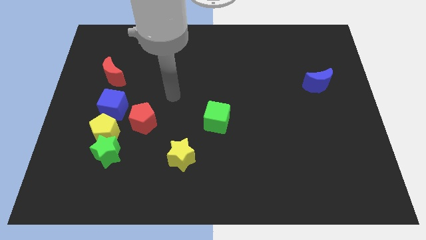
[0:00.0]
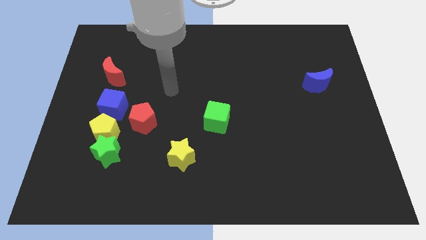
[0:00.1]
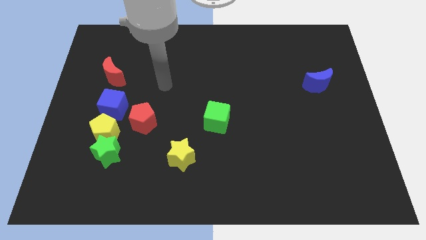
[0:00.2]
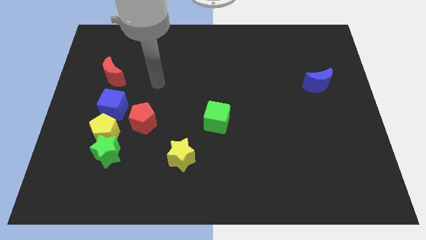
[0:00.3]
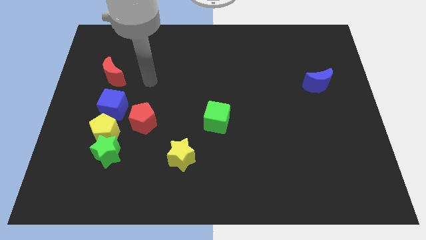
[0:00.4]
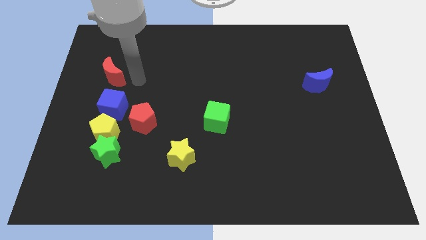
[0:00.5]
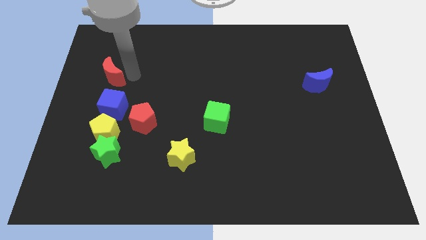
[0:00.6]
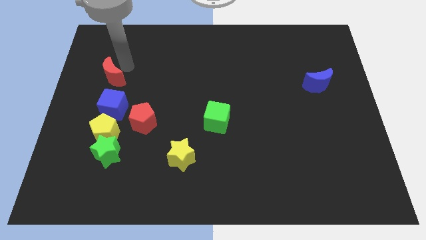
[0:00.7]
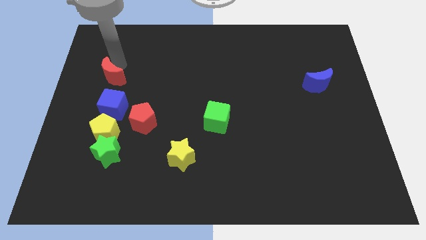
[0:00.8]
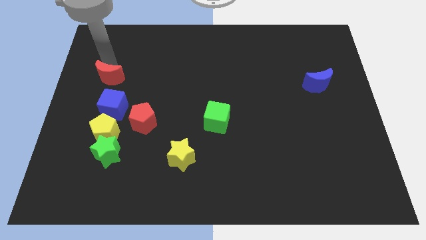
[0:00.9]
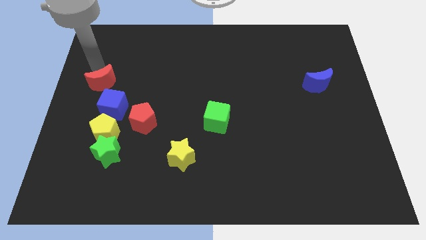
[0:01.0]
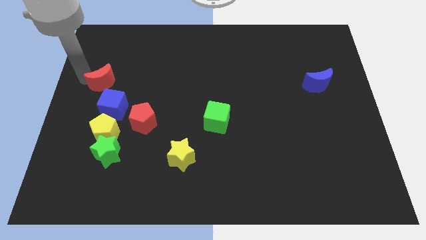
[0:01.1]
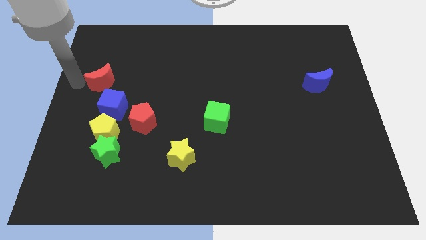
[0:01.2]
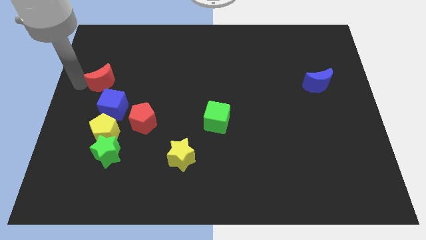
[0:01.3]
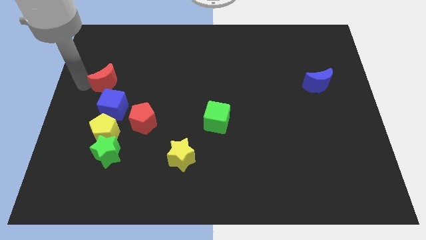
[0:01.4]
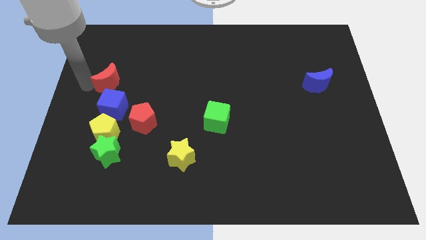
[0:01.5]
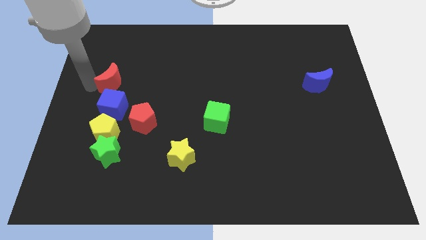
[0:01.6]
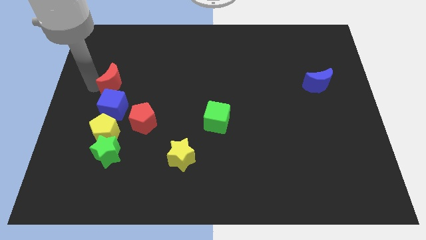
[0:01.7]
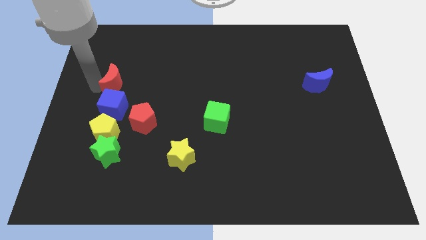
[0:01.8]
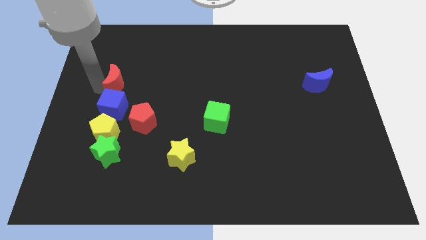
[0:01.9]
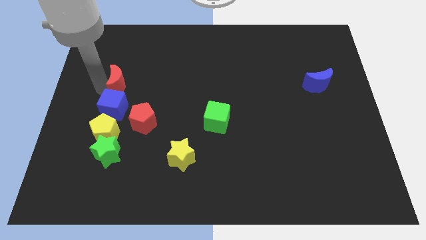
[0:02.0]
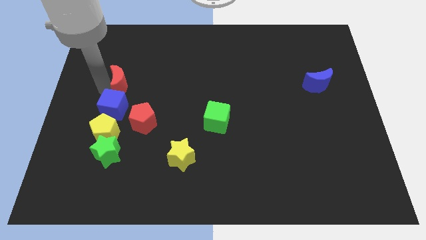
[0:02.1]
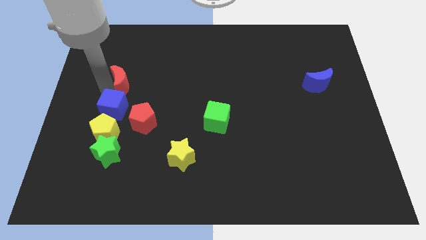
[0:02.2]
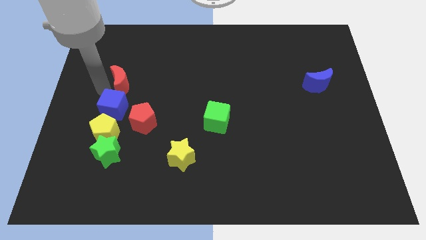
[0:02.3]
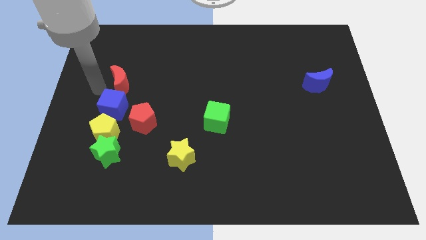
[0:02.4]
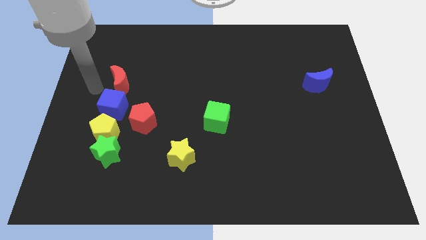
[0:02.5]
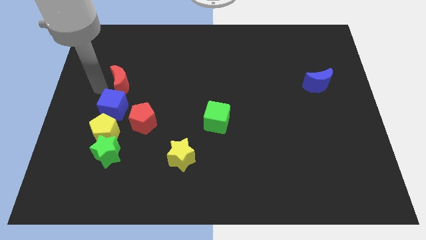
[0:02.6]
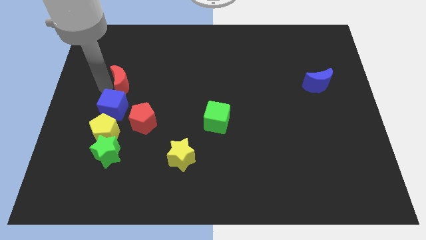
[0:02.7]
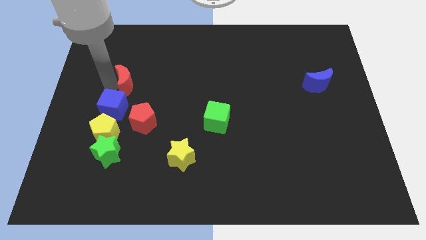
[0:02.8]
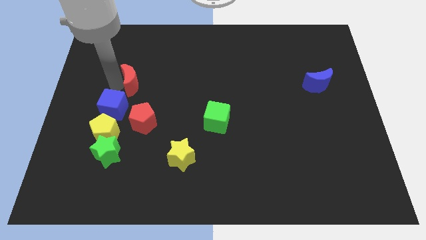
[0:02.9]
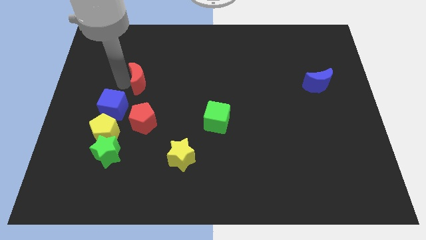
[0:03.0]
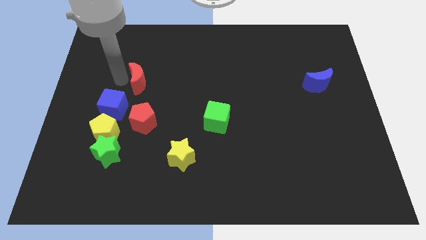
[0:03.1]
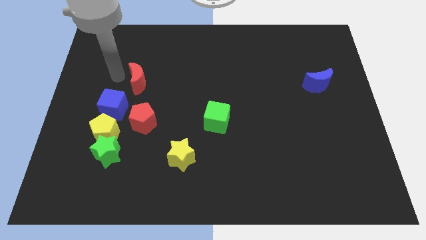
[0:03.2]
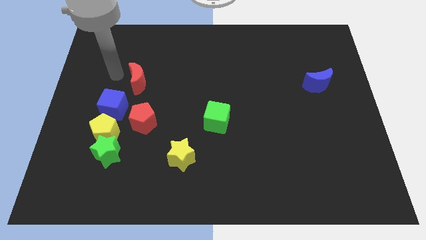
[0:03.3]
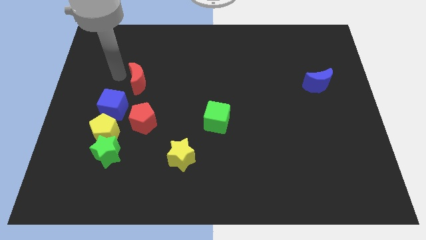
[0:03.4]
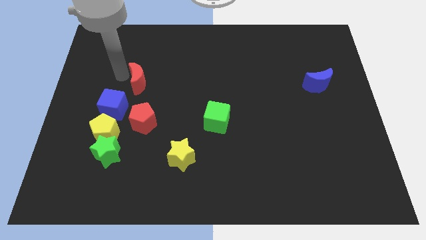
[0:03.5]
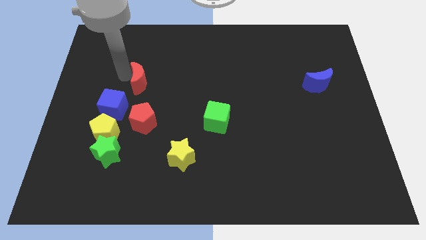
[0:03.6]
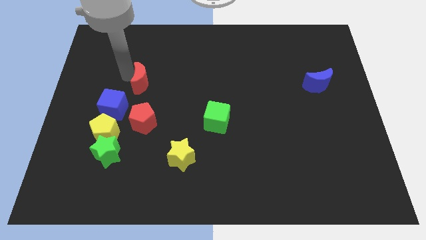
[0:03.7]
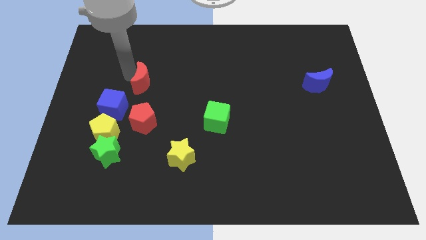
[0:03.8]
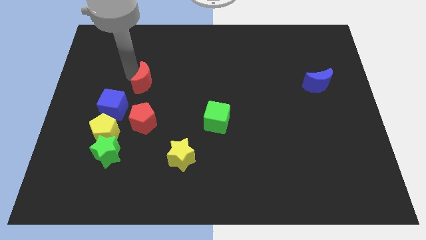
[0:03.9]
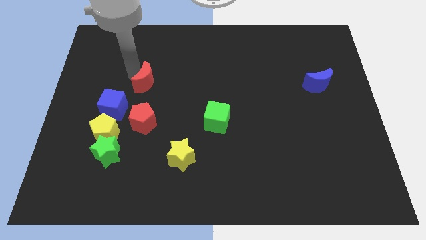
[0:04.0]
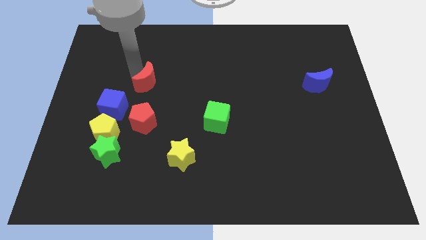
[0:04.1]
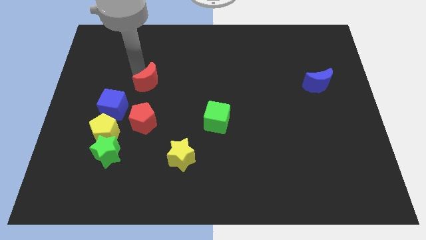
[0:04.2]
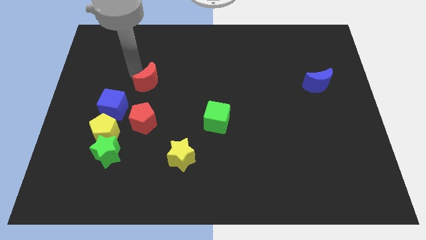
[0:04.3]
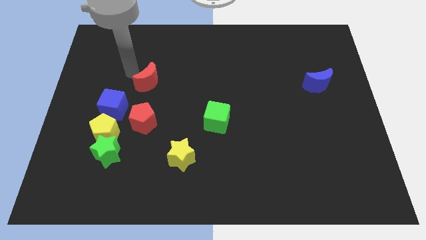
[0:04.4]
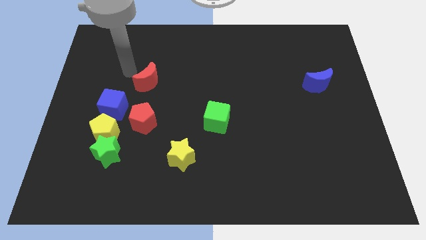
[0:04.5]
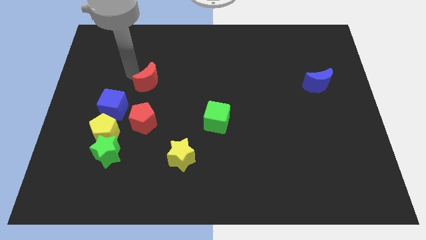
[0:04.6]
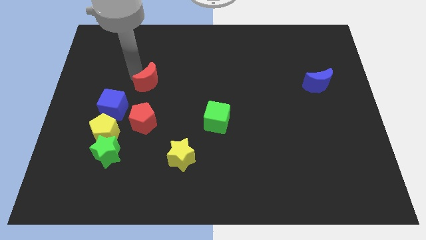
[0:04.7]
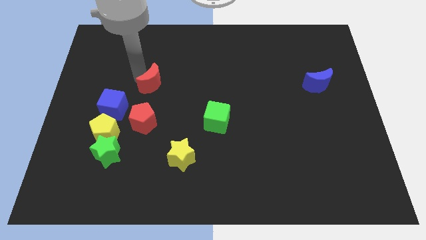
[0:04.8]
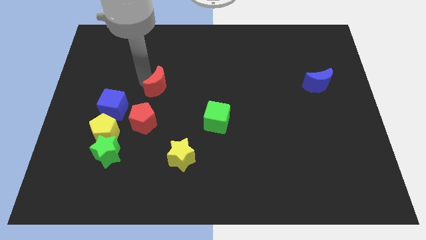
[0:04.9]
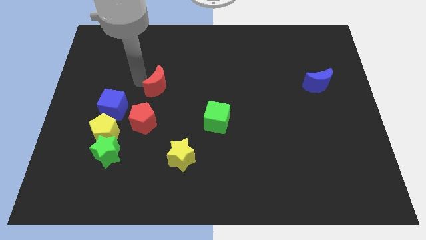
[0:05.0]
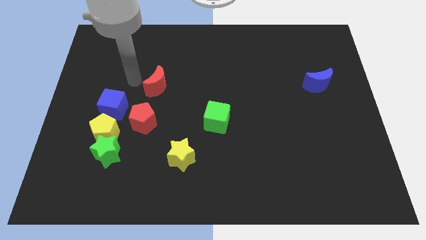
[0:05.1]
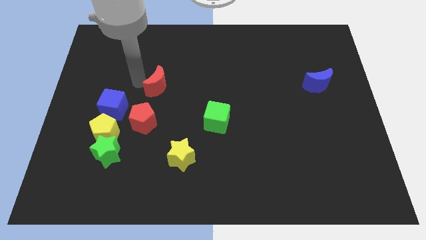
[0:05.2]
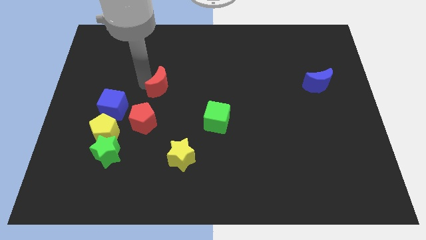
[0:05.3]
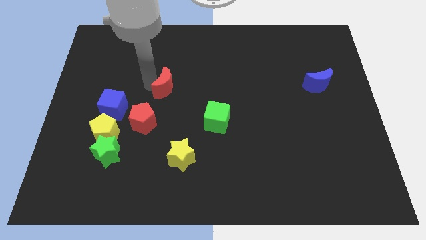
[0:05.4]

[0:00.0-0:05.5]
slide the red moon to the center

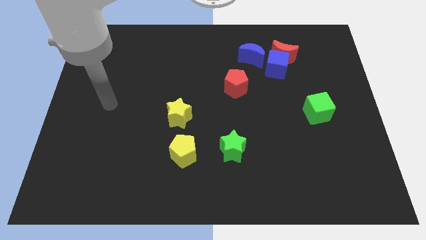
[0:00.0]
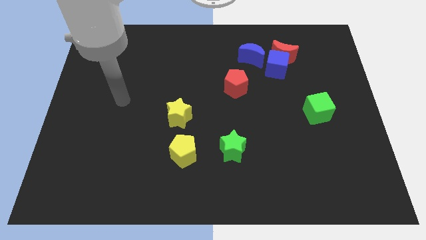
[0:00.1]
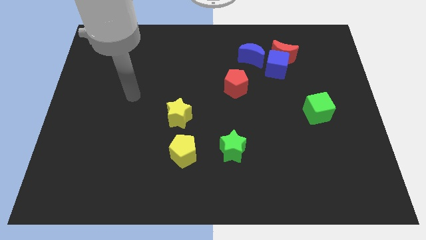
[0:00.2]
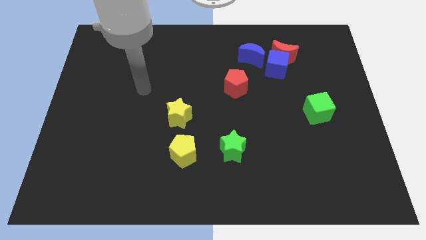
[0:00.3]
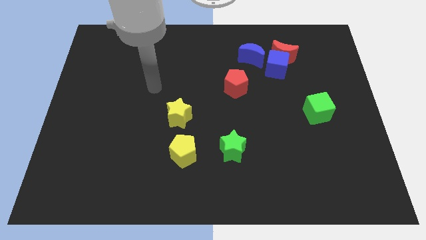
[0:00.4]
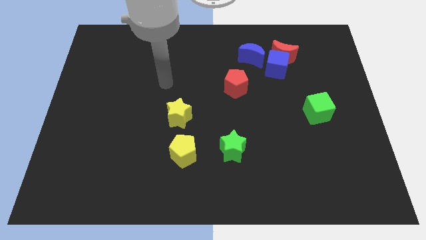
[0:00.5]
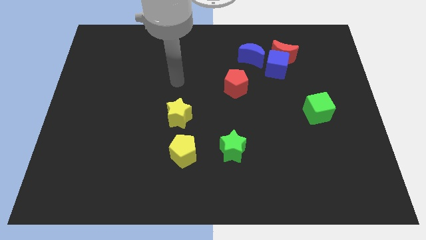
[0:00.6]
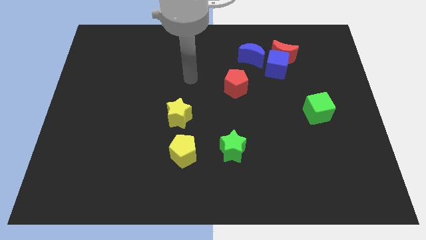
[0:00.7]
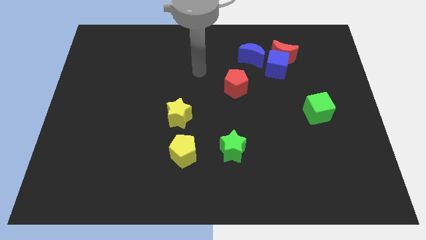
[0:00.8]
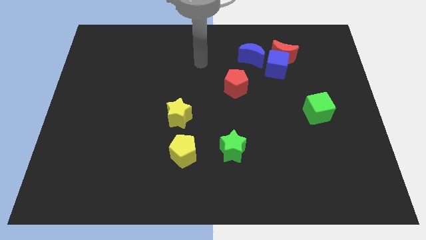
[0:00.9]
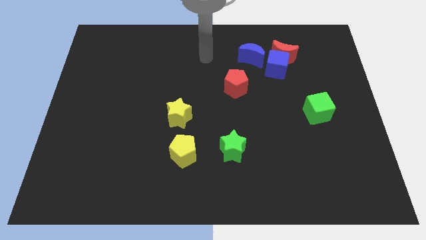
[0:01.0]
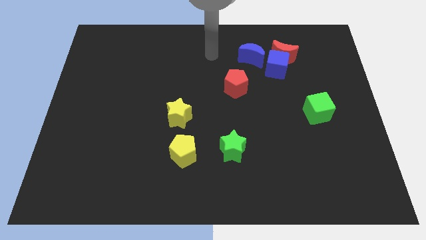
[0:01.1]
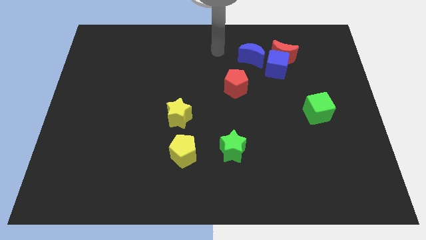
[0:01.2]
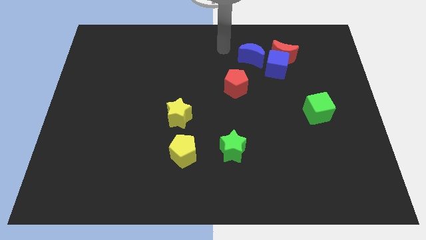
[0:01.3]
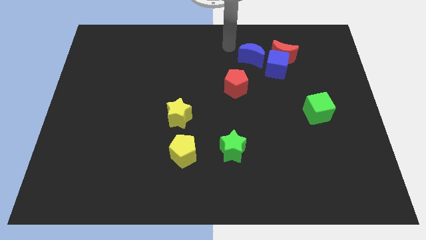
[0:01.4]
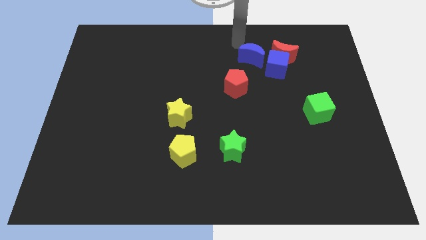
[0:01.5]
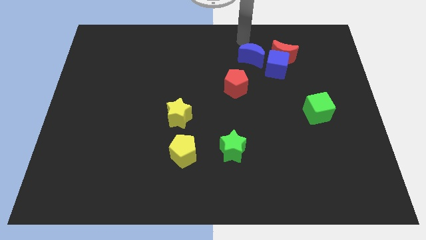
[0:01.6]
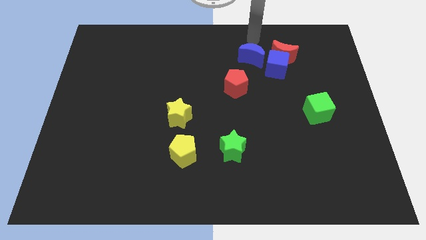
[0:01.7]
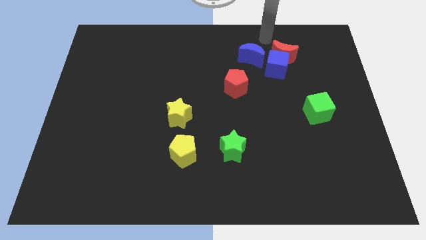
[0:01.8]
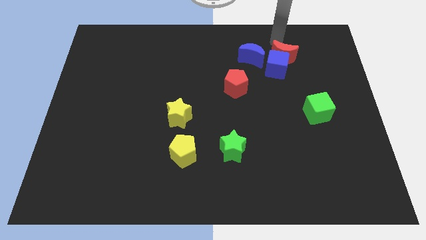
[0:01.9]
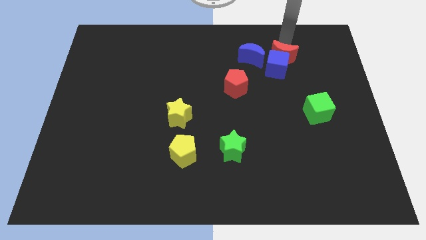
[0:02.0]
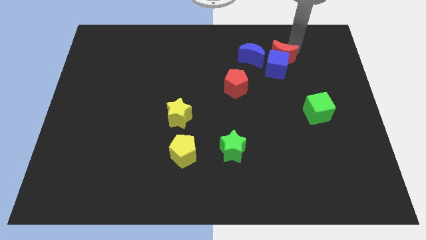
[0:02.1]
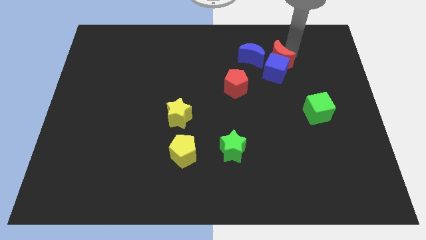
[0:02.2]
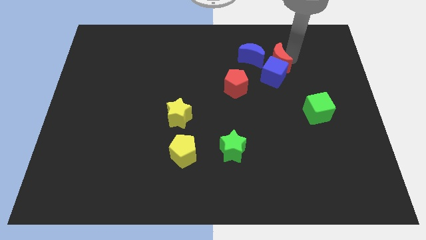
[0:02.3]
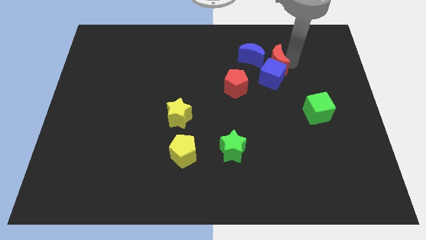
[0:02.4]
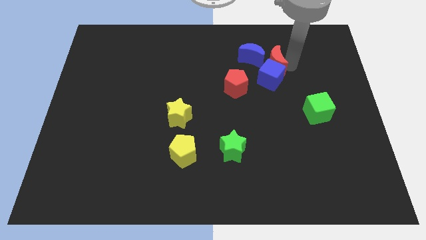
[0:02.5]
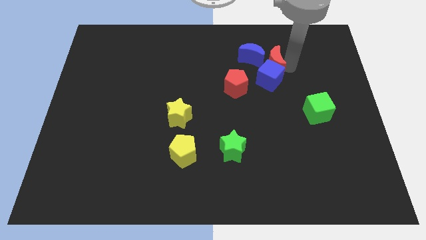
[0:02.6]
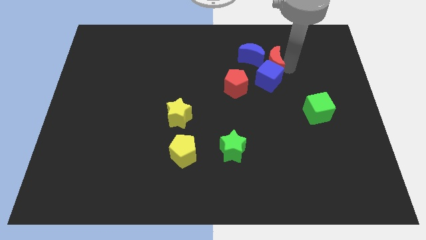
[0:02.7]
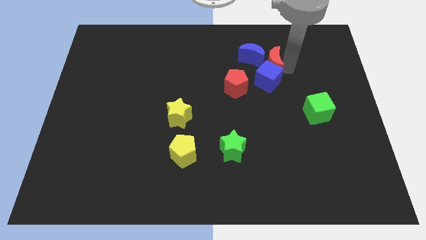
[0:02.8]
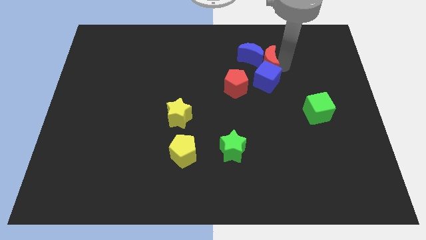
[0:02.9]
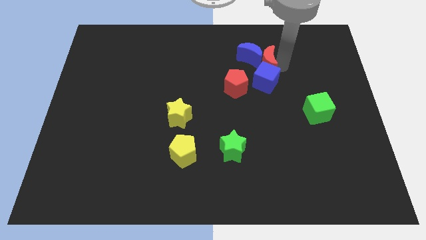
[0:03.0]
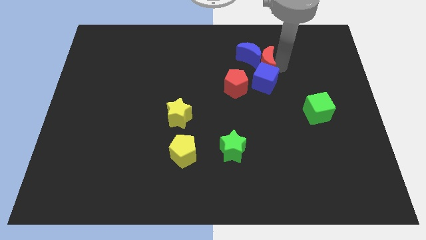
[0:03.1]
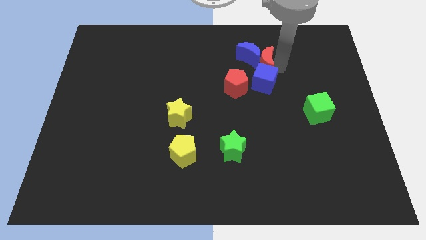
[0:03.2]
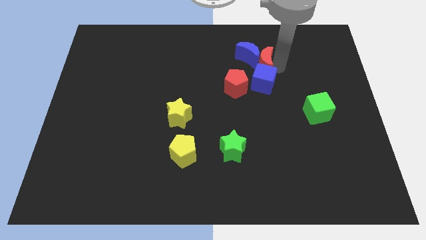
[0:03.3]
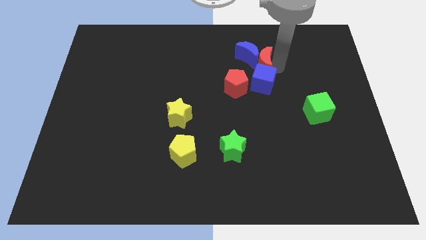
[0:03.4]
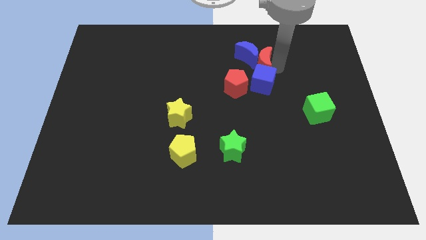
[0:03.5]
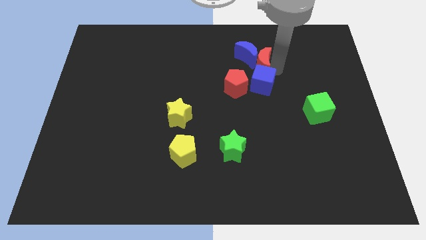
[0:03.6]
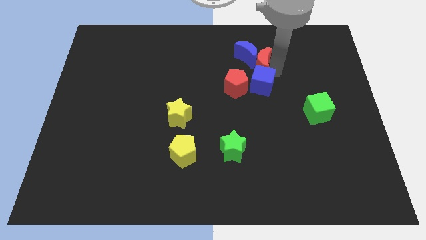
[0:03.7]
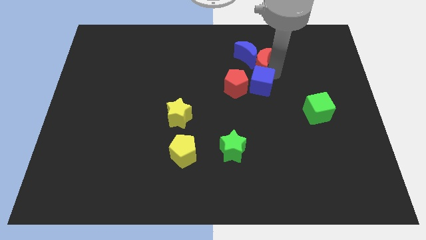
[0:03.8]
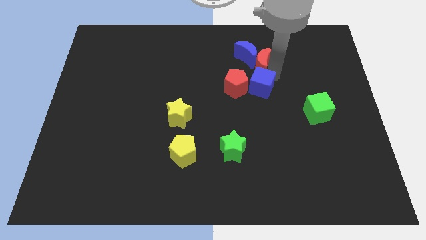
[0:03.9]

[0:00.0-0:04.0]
push the blue cube to the center of the board
